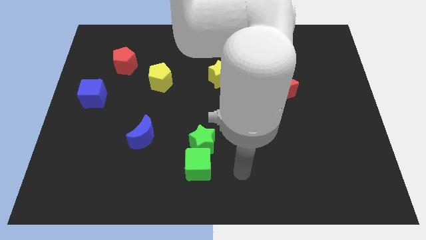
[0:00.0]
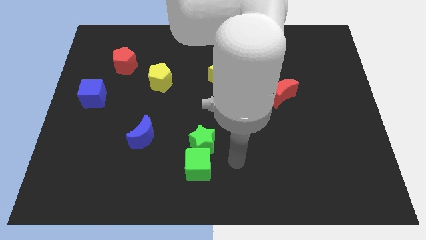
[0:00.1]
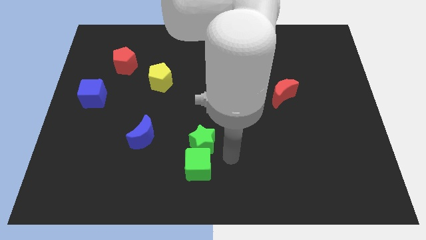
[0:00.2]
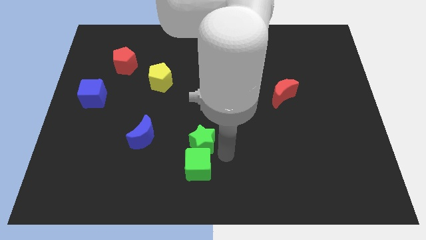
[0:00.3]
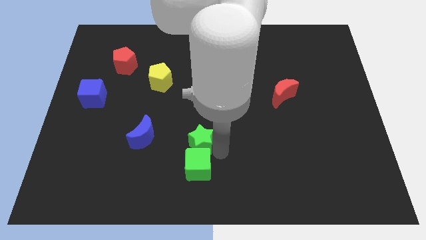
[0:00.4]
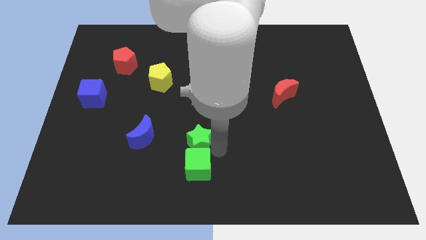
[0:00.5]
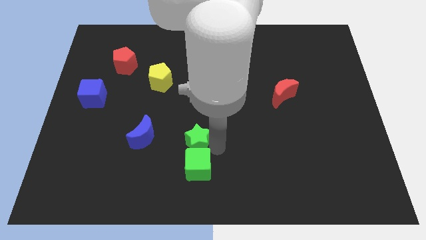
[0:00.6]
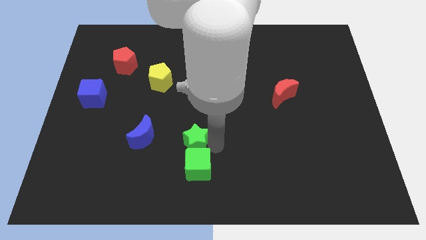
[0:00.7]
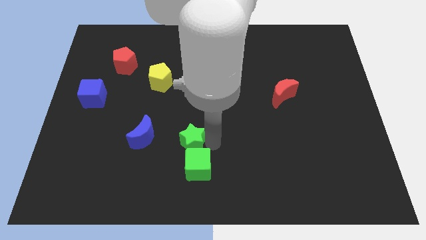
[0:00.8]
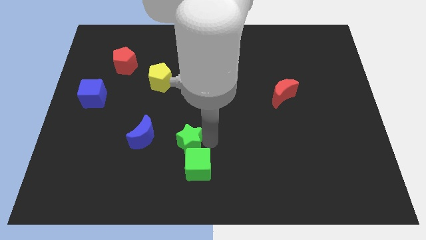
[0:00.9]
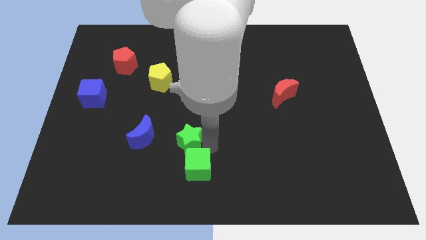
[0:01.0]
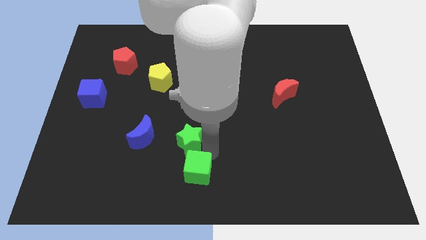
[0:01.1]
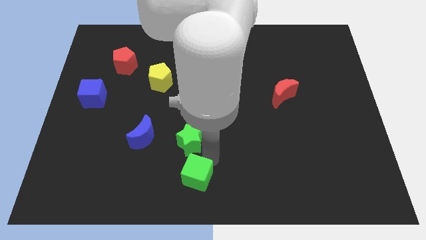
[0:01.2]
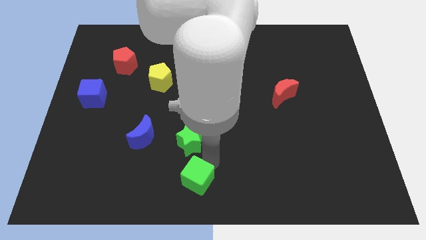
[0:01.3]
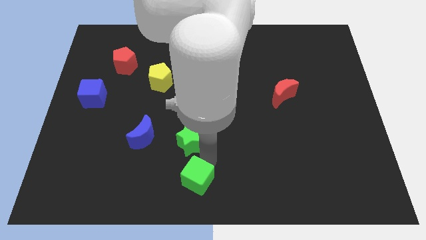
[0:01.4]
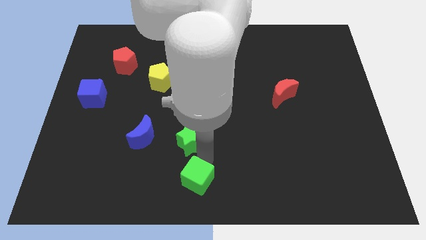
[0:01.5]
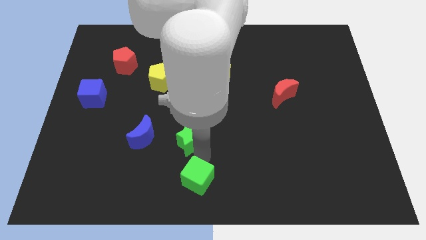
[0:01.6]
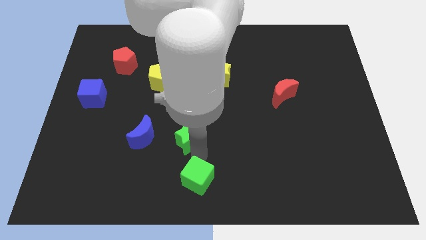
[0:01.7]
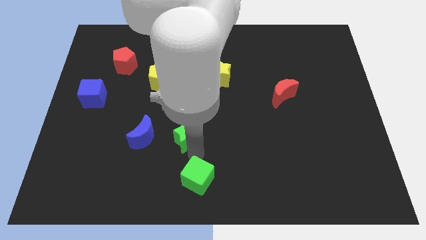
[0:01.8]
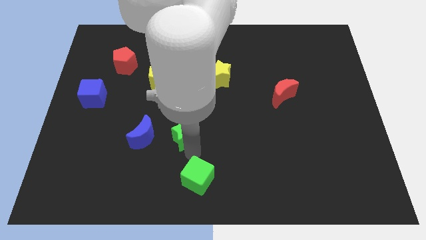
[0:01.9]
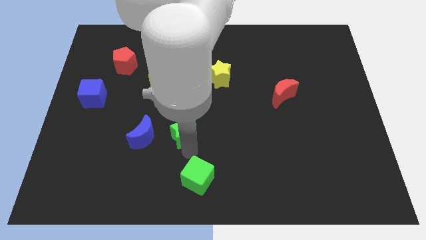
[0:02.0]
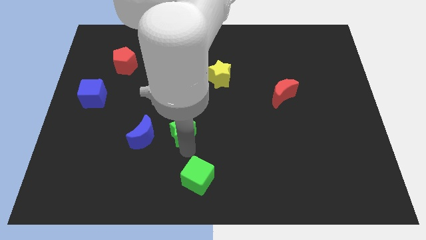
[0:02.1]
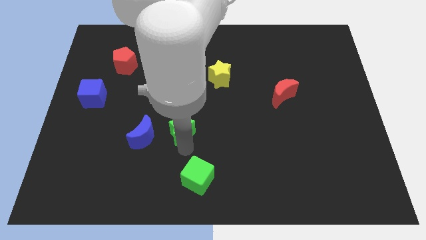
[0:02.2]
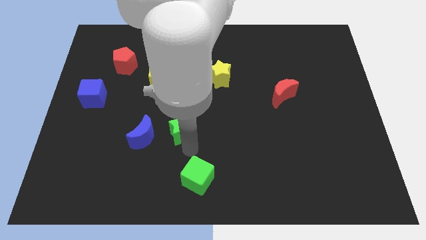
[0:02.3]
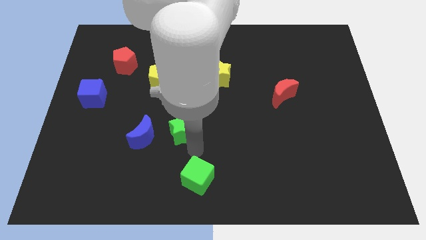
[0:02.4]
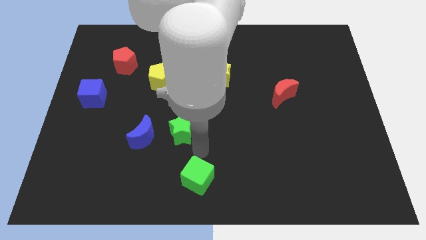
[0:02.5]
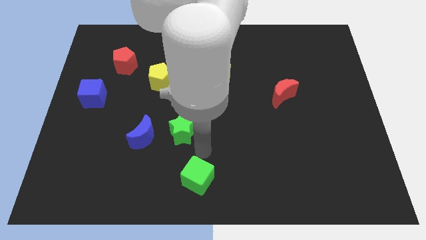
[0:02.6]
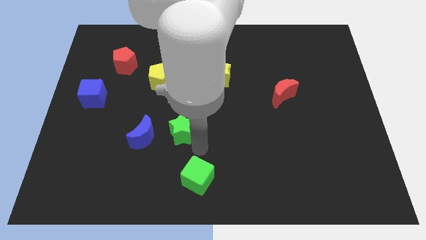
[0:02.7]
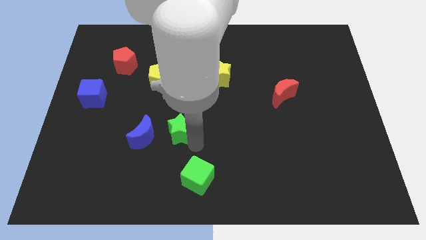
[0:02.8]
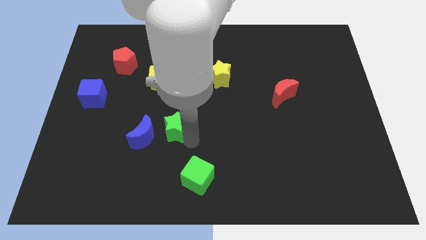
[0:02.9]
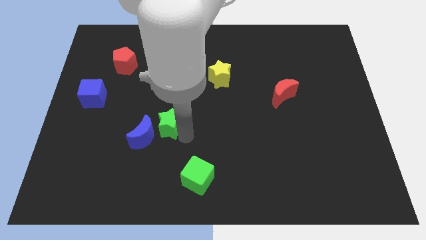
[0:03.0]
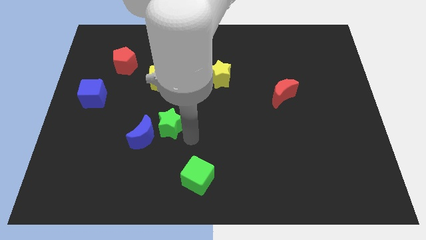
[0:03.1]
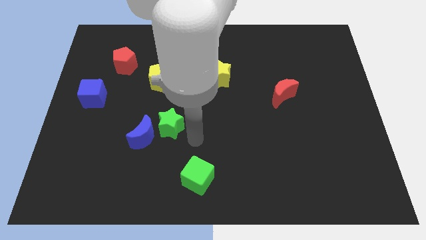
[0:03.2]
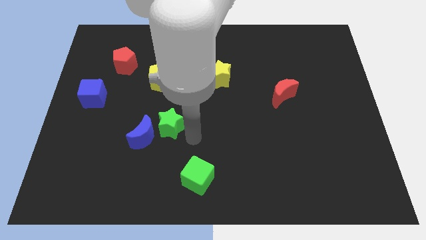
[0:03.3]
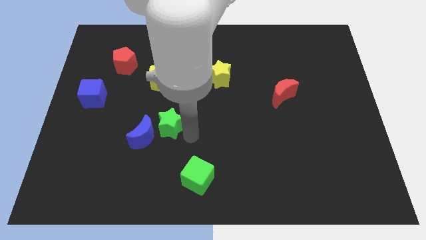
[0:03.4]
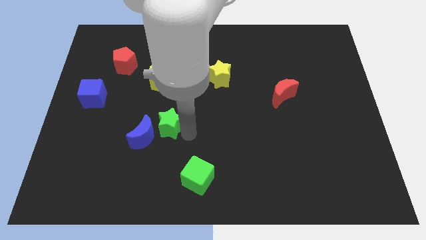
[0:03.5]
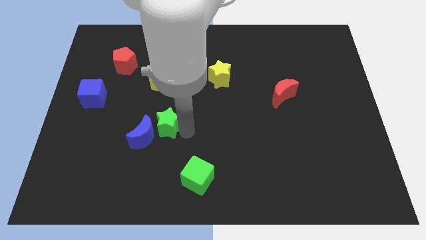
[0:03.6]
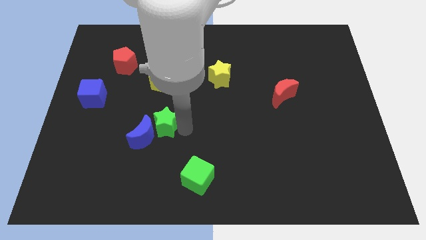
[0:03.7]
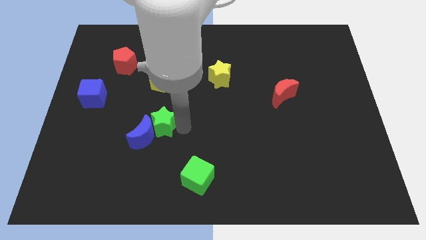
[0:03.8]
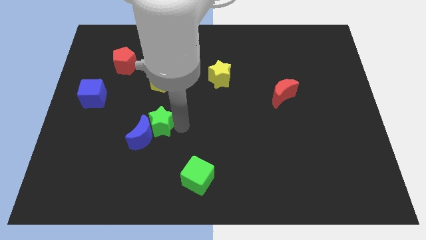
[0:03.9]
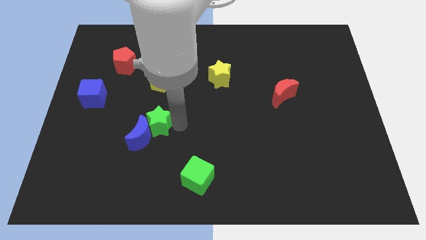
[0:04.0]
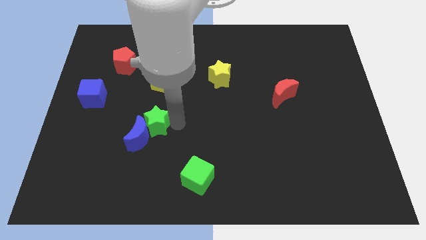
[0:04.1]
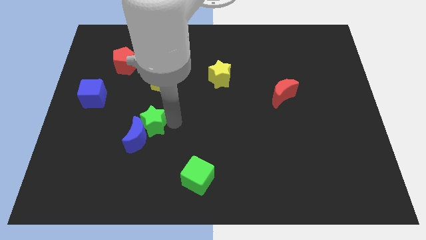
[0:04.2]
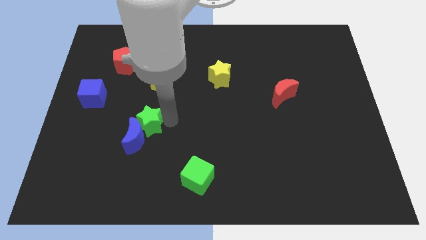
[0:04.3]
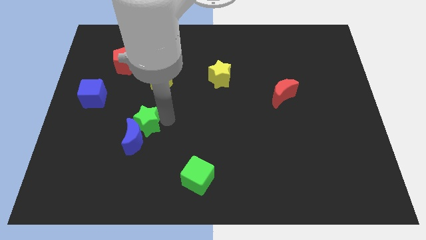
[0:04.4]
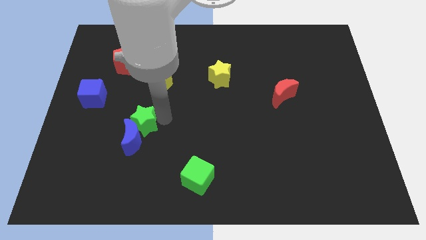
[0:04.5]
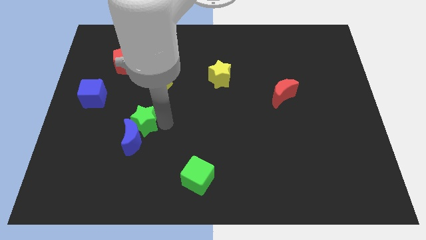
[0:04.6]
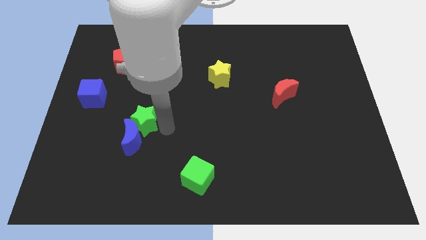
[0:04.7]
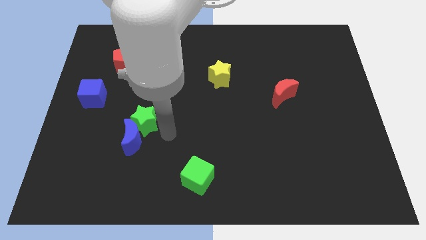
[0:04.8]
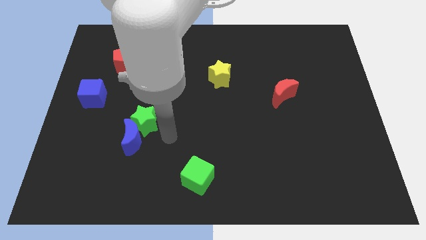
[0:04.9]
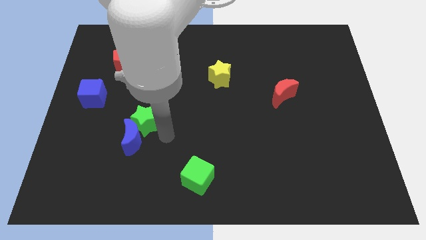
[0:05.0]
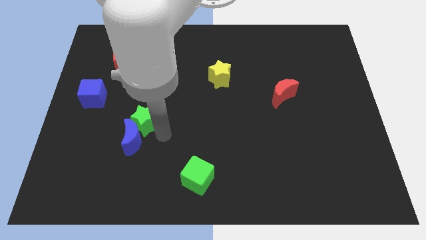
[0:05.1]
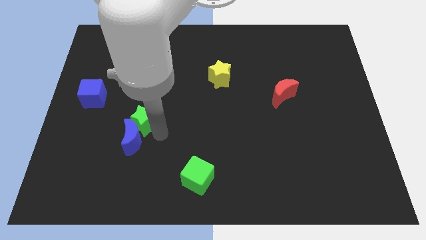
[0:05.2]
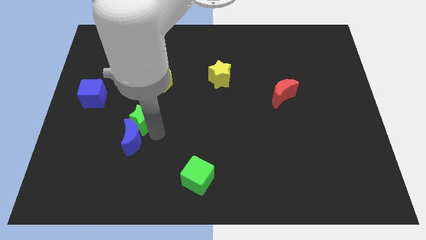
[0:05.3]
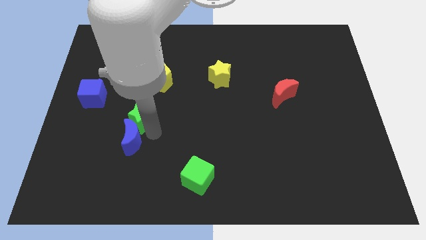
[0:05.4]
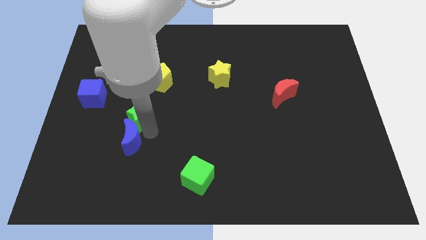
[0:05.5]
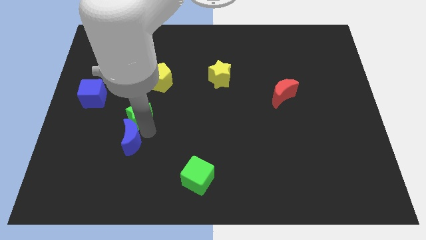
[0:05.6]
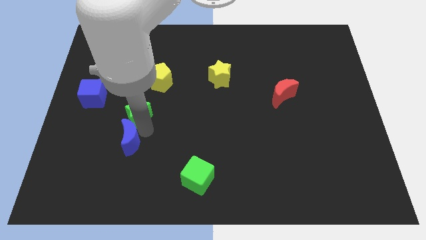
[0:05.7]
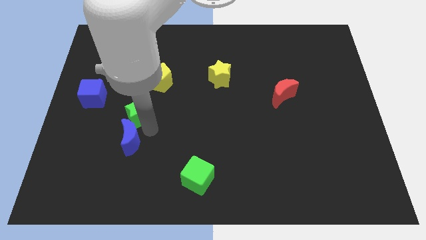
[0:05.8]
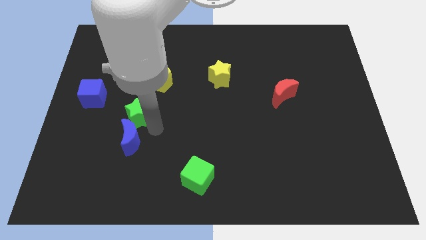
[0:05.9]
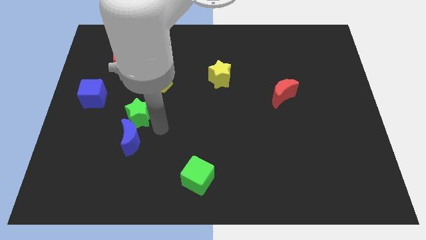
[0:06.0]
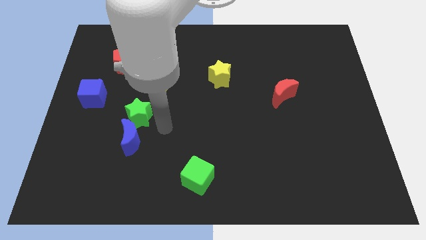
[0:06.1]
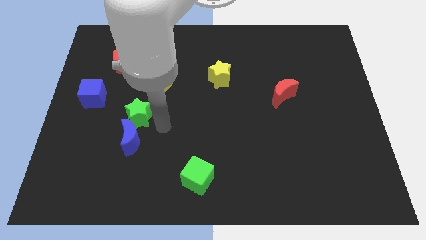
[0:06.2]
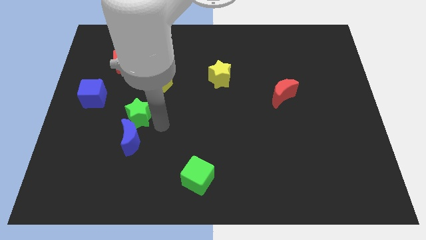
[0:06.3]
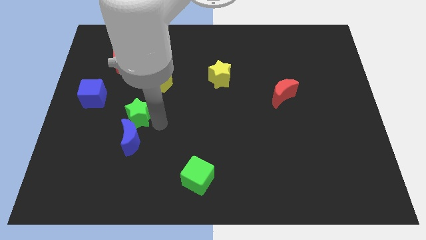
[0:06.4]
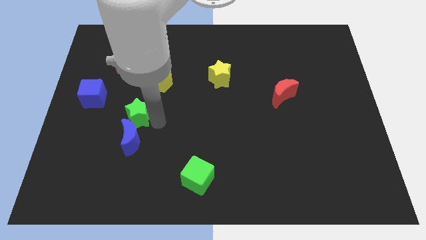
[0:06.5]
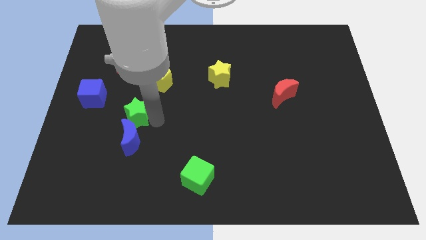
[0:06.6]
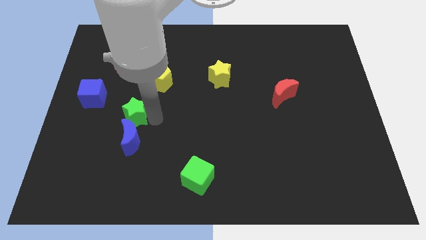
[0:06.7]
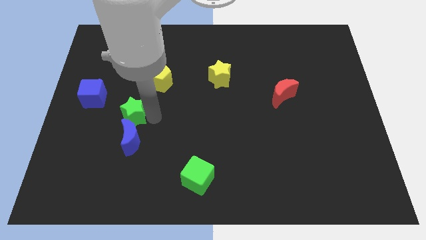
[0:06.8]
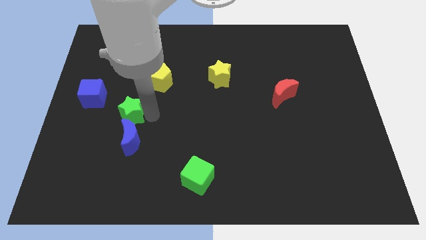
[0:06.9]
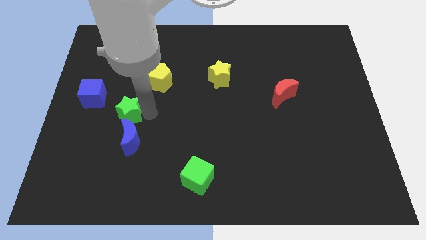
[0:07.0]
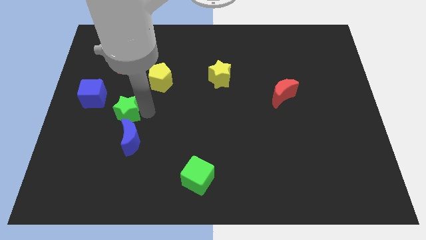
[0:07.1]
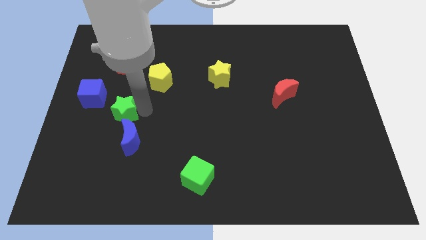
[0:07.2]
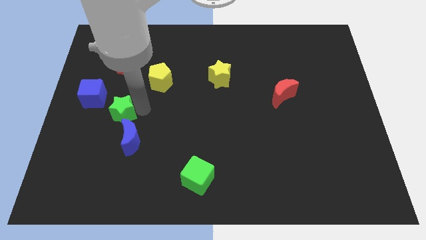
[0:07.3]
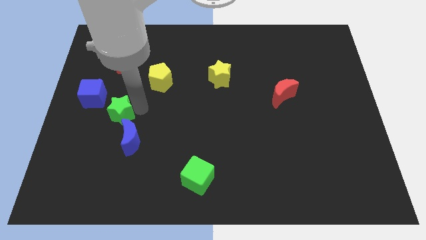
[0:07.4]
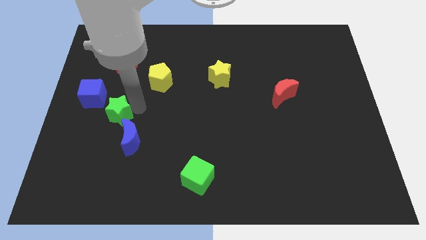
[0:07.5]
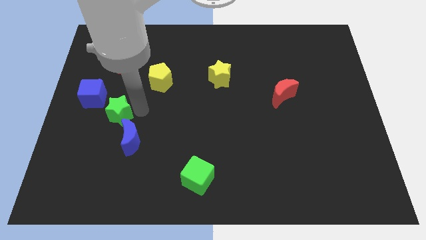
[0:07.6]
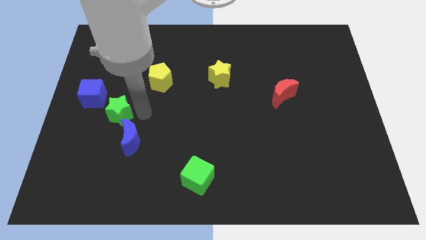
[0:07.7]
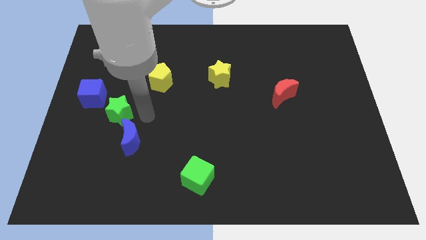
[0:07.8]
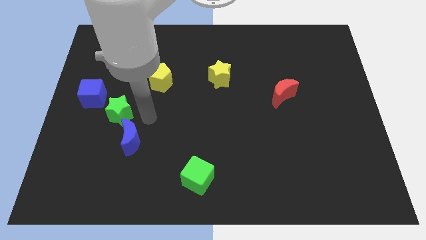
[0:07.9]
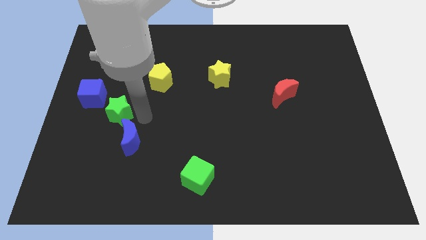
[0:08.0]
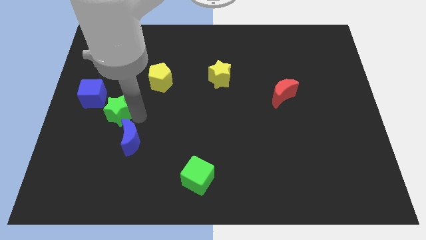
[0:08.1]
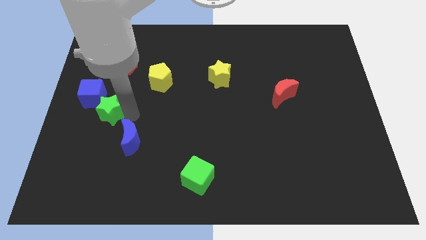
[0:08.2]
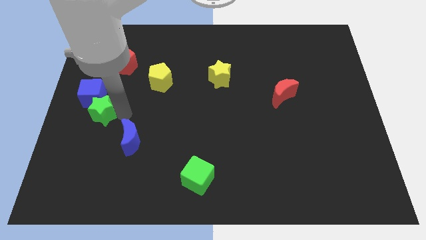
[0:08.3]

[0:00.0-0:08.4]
move the green star to the left side of the board
